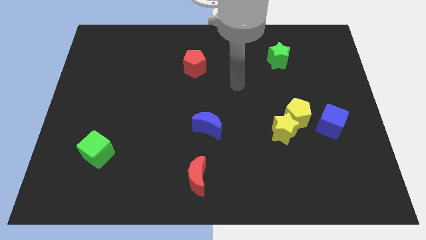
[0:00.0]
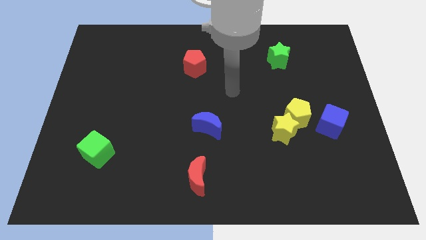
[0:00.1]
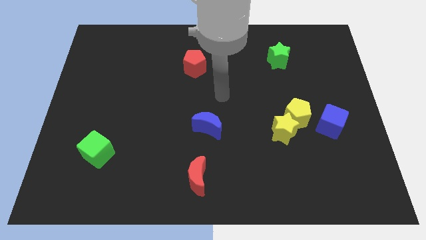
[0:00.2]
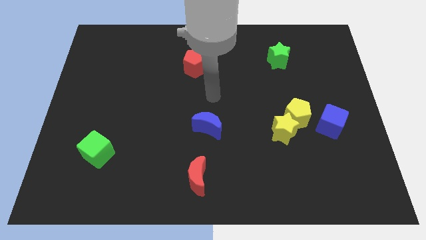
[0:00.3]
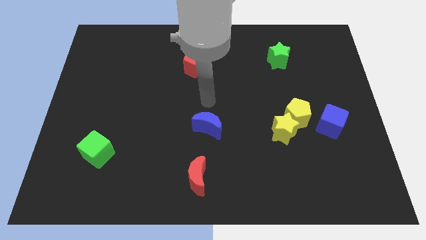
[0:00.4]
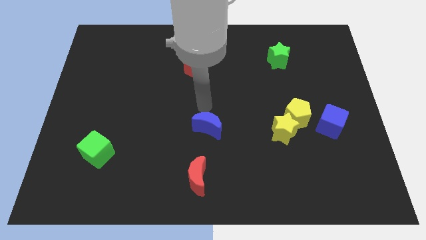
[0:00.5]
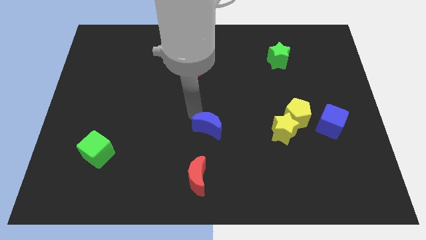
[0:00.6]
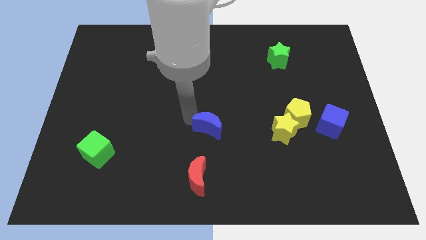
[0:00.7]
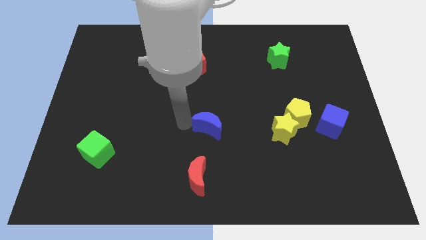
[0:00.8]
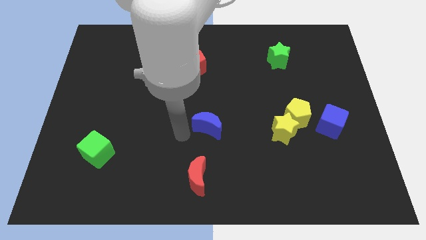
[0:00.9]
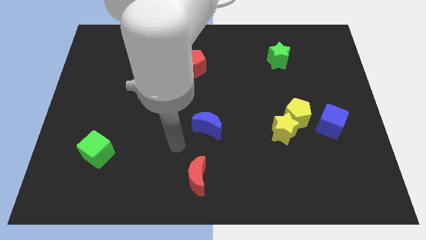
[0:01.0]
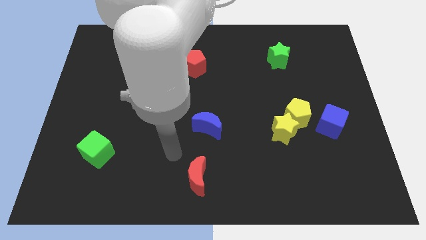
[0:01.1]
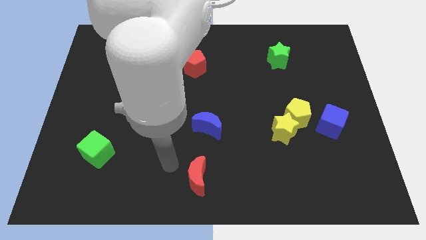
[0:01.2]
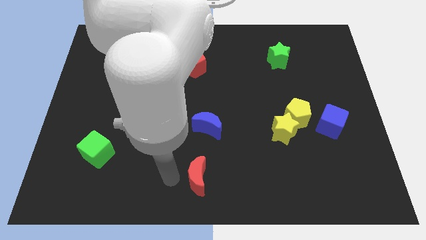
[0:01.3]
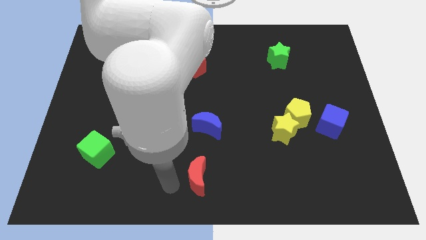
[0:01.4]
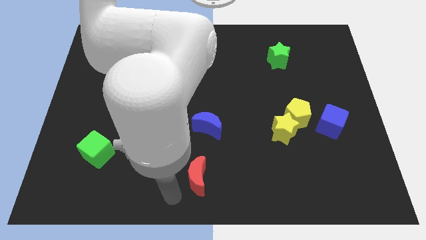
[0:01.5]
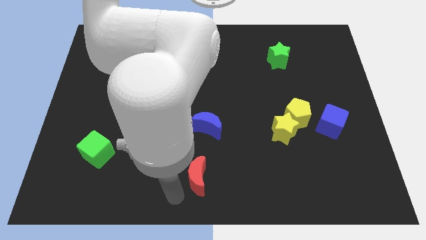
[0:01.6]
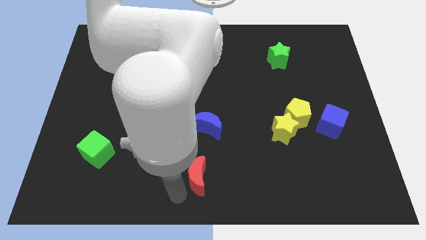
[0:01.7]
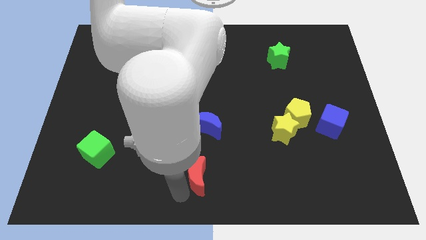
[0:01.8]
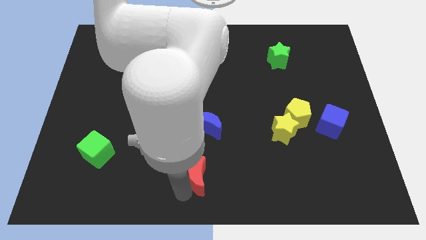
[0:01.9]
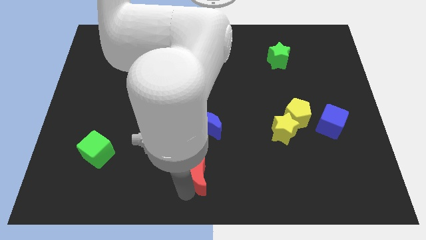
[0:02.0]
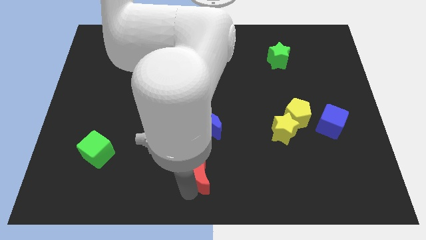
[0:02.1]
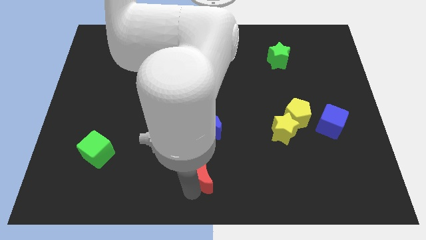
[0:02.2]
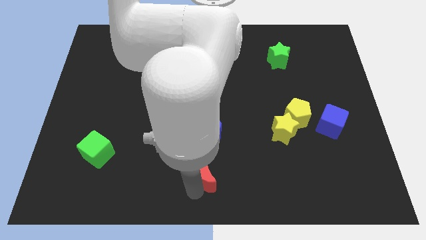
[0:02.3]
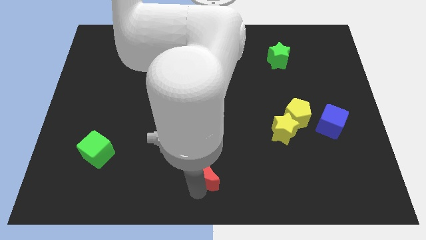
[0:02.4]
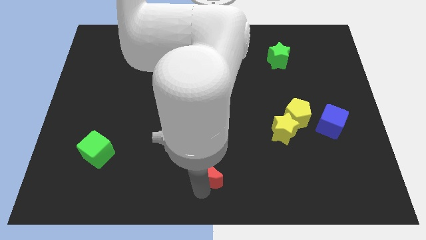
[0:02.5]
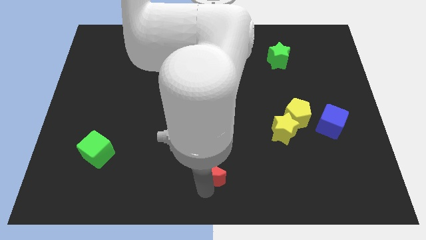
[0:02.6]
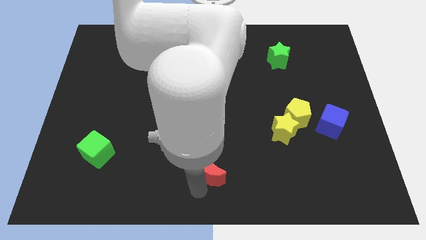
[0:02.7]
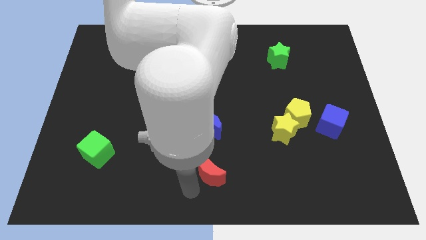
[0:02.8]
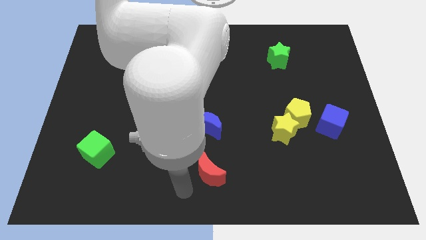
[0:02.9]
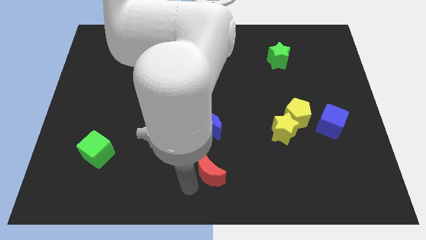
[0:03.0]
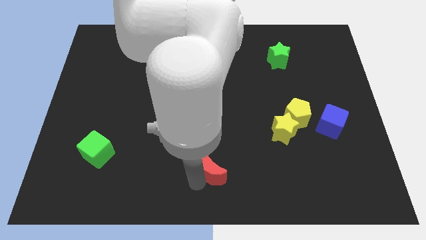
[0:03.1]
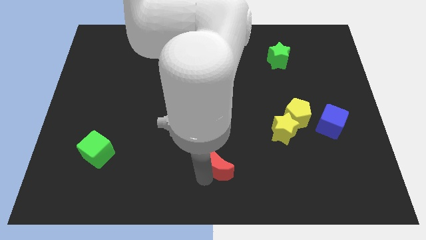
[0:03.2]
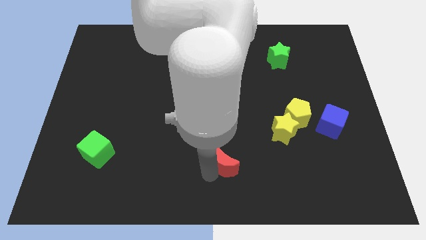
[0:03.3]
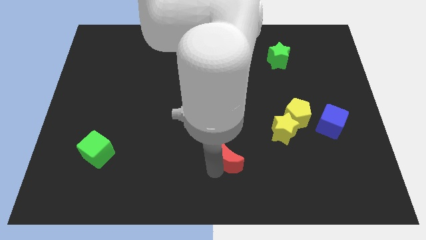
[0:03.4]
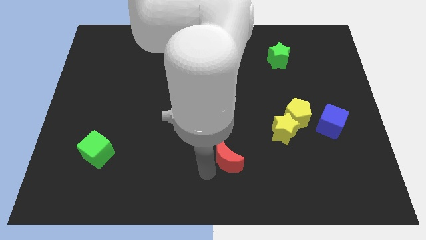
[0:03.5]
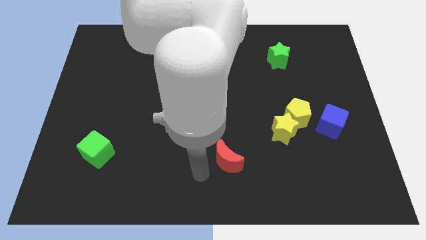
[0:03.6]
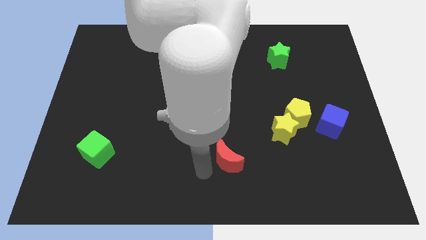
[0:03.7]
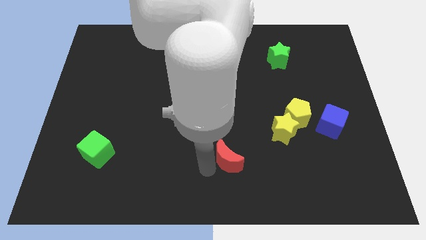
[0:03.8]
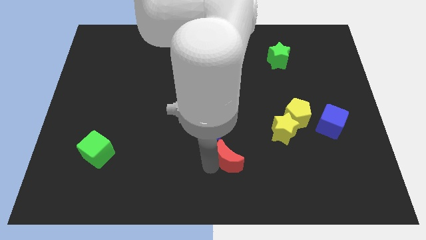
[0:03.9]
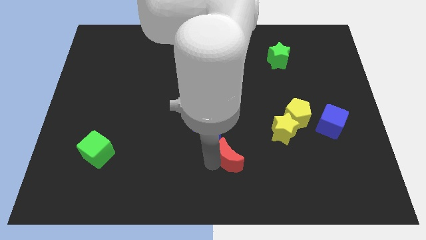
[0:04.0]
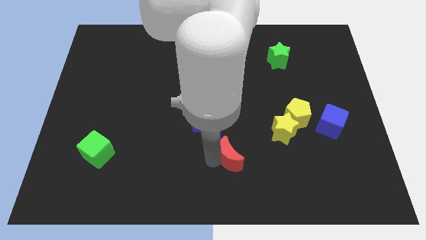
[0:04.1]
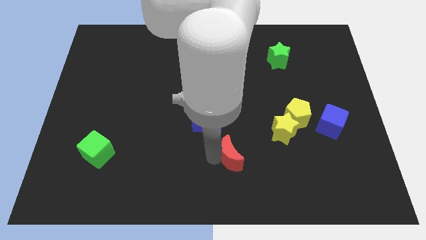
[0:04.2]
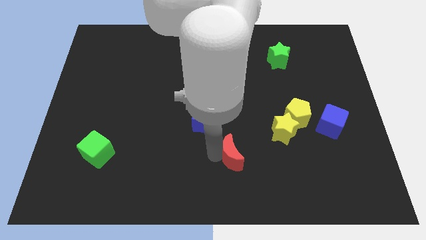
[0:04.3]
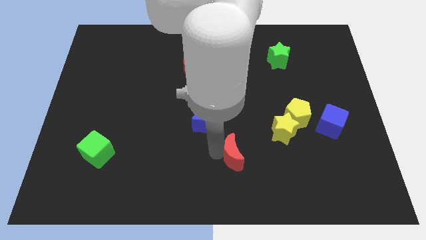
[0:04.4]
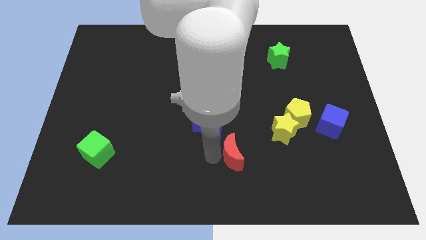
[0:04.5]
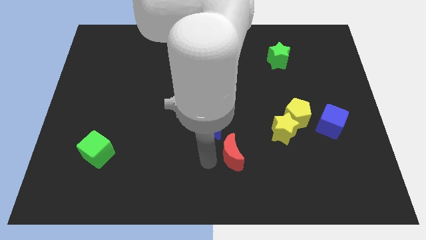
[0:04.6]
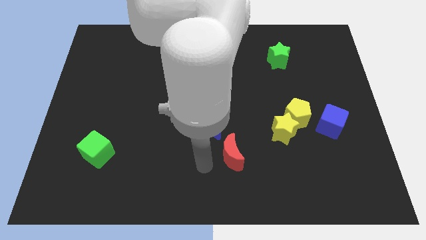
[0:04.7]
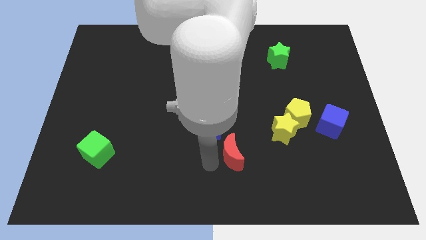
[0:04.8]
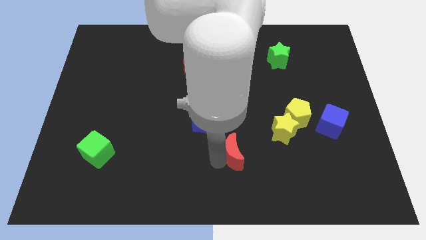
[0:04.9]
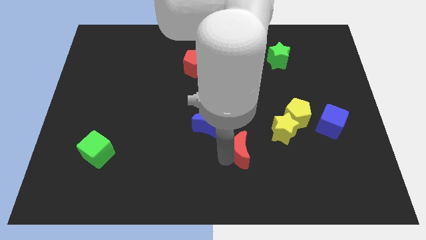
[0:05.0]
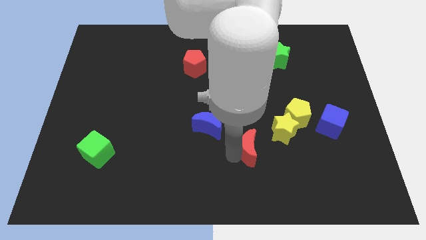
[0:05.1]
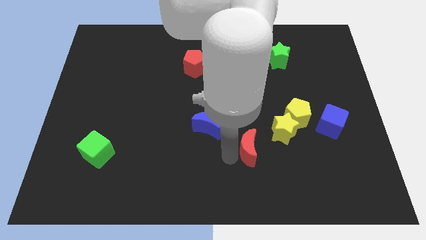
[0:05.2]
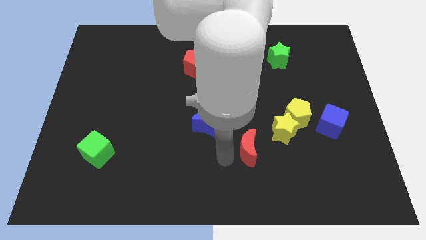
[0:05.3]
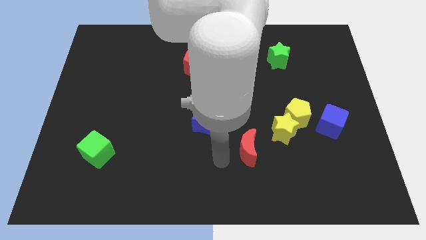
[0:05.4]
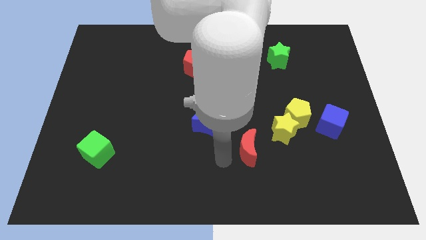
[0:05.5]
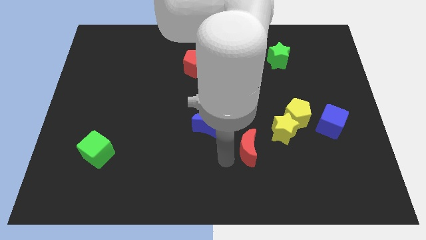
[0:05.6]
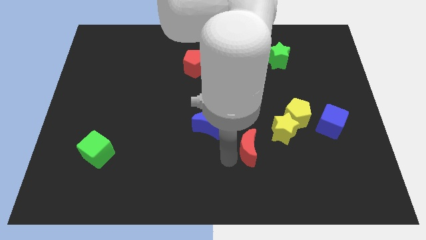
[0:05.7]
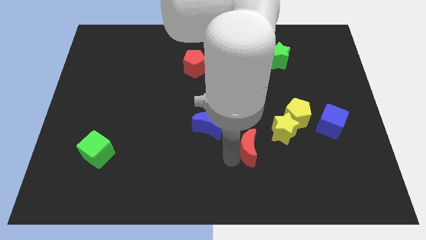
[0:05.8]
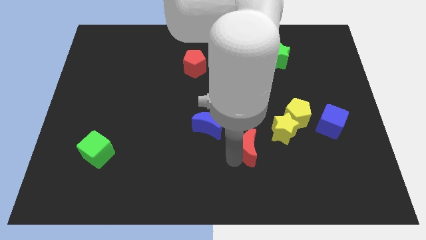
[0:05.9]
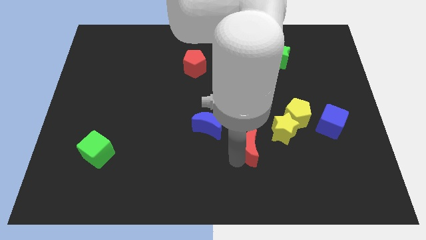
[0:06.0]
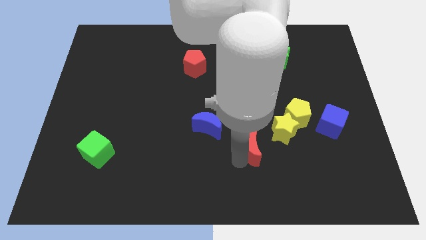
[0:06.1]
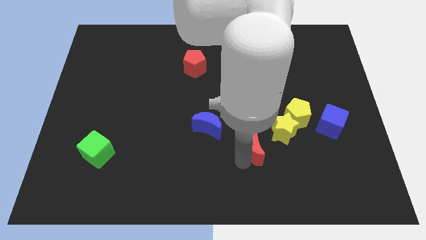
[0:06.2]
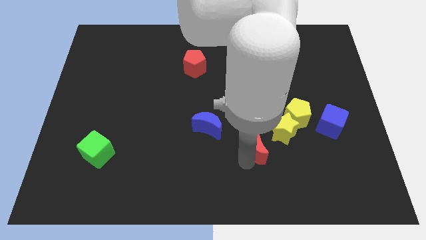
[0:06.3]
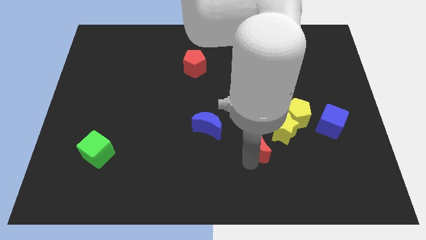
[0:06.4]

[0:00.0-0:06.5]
move the red moon diagonally down and to the left of the yellow pentagon

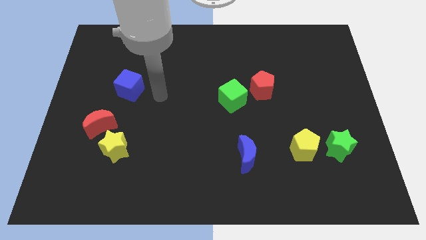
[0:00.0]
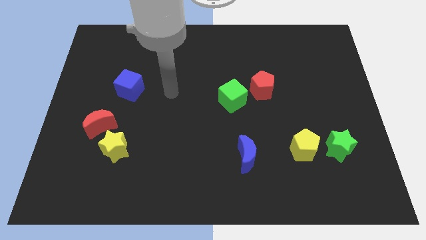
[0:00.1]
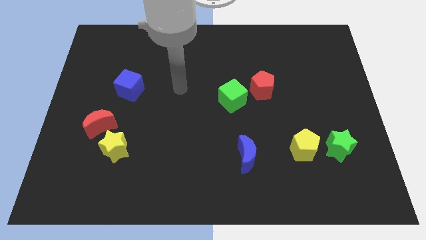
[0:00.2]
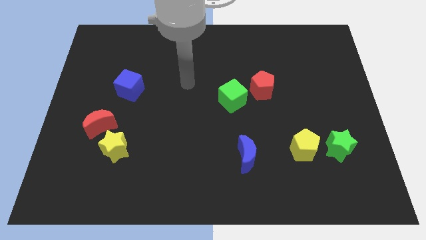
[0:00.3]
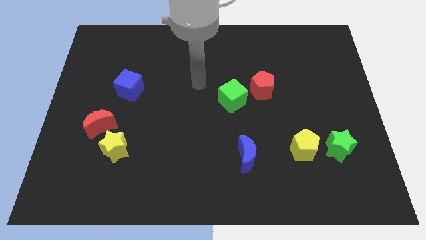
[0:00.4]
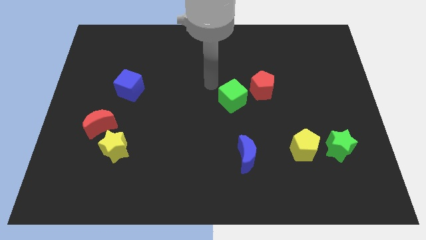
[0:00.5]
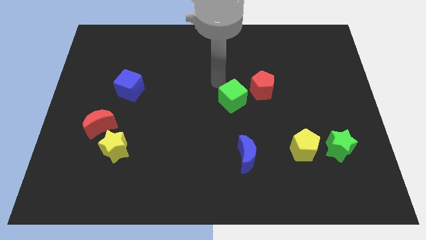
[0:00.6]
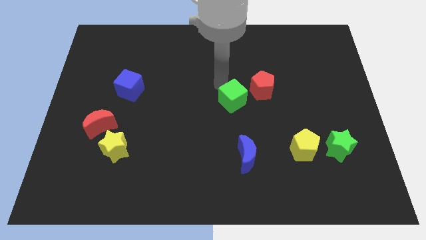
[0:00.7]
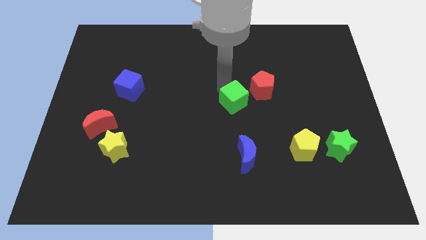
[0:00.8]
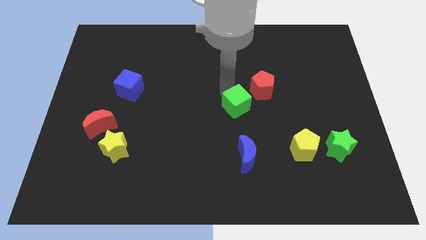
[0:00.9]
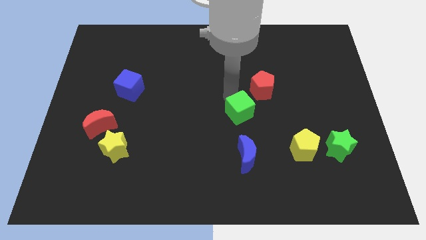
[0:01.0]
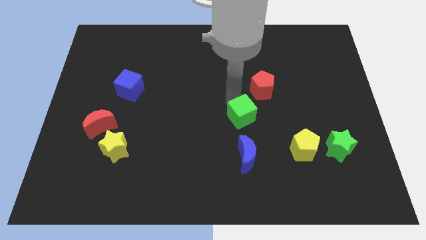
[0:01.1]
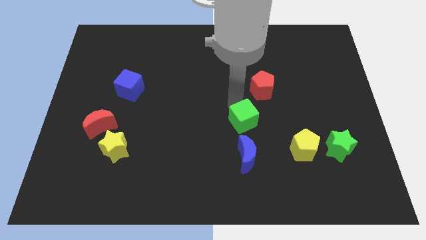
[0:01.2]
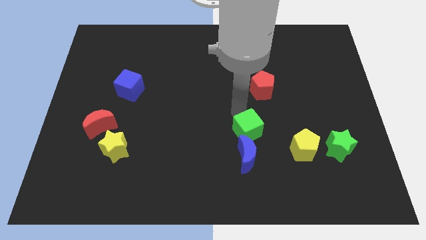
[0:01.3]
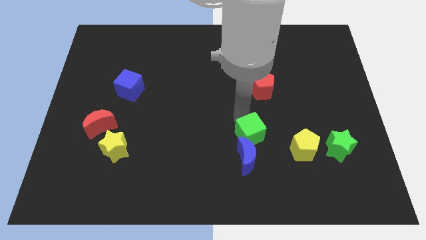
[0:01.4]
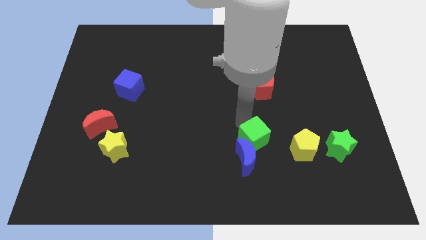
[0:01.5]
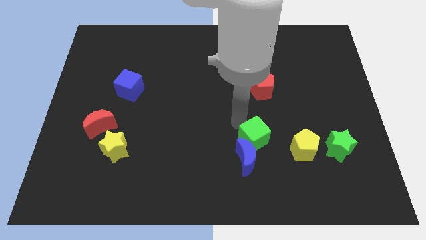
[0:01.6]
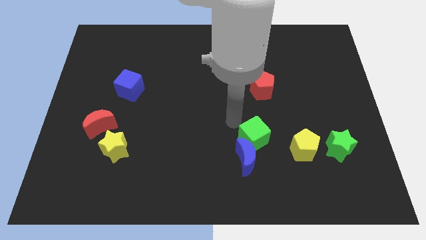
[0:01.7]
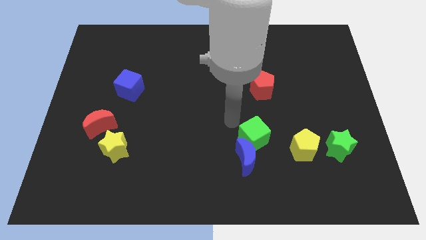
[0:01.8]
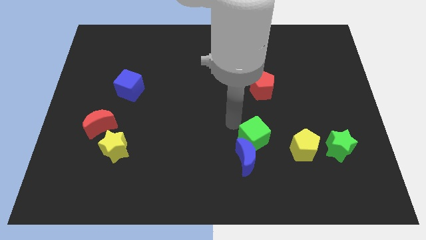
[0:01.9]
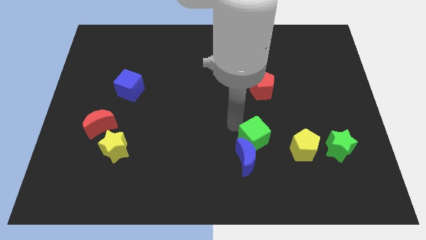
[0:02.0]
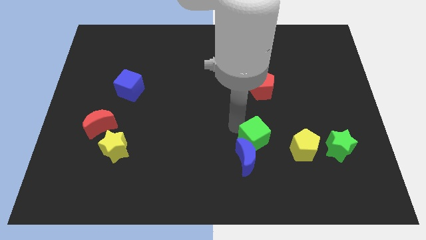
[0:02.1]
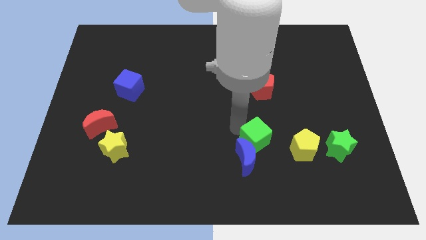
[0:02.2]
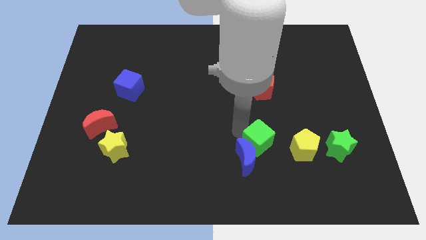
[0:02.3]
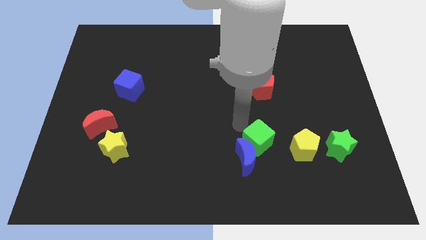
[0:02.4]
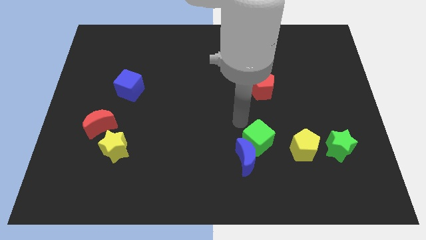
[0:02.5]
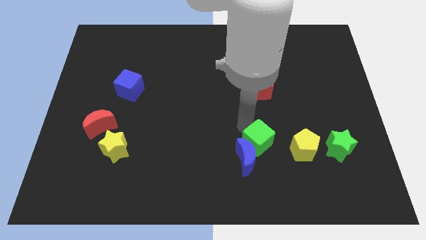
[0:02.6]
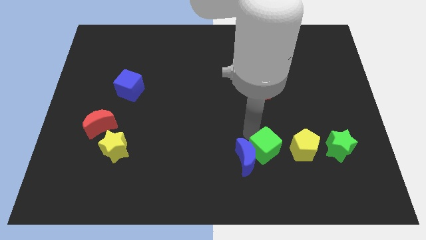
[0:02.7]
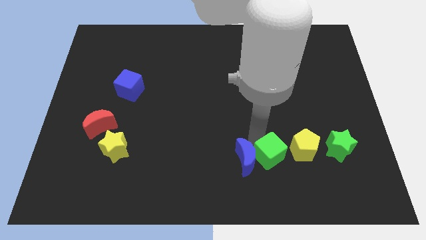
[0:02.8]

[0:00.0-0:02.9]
push the green cube to the bottom left side of the yellow pentagon
